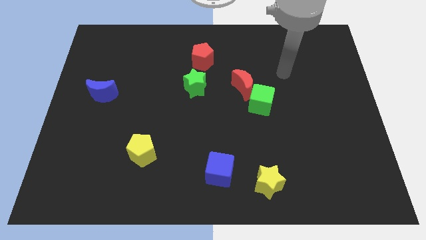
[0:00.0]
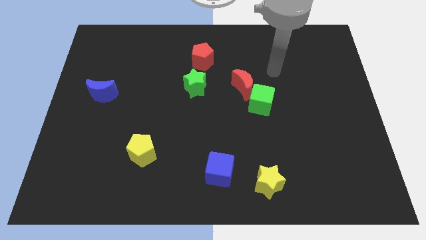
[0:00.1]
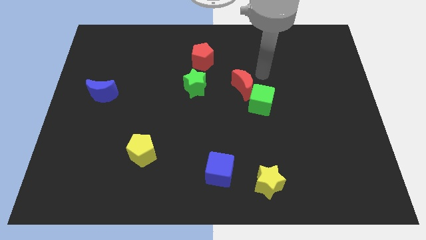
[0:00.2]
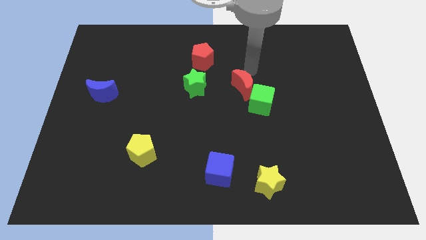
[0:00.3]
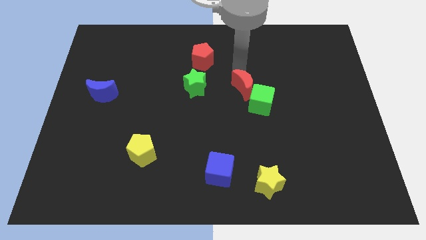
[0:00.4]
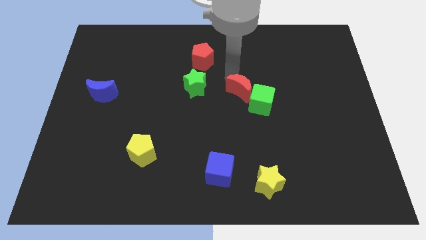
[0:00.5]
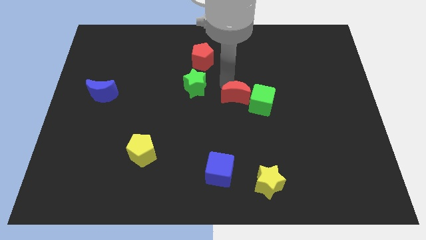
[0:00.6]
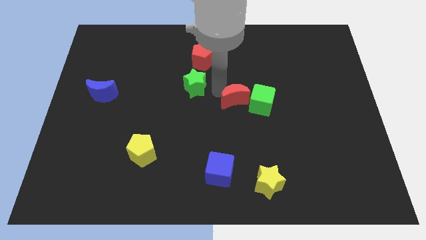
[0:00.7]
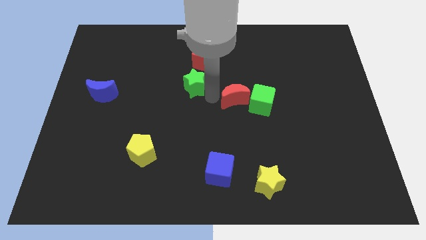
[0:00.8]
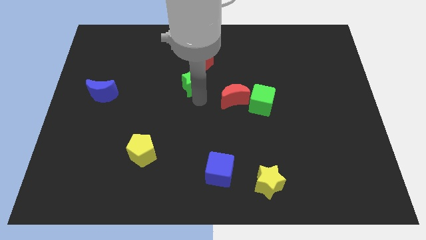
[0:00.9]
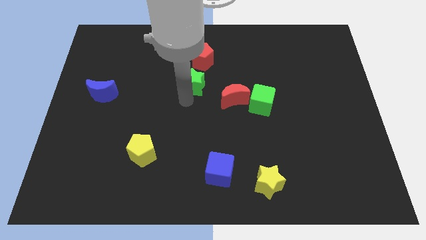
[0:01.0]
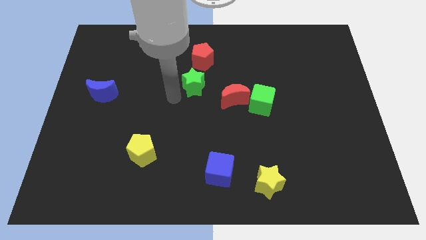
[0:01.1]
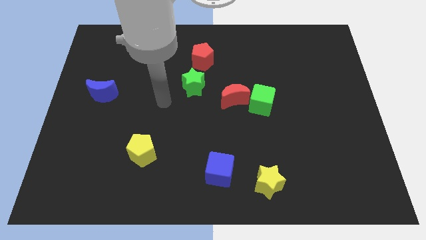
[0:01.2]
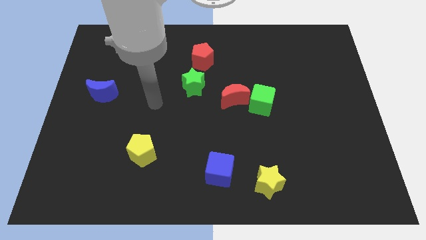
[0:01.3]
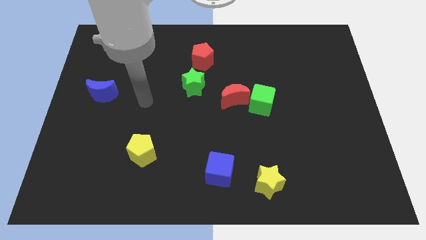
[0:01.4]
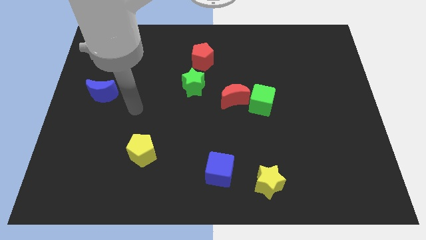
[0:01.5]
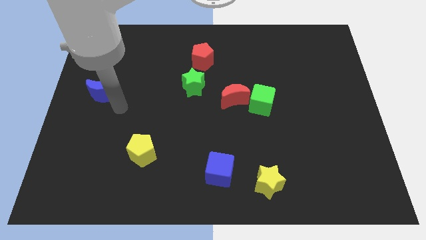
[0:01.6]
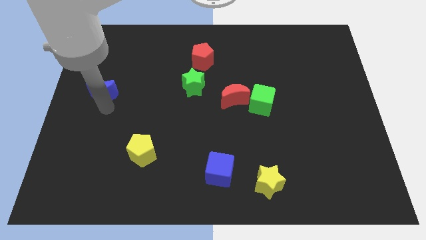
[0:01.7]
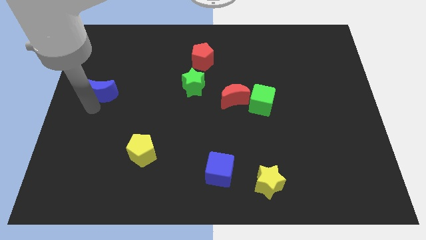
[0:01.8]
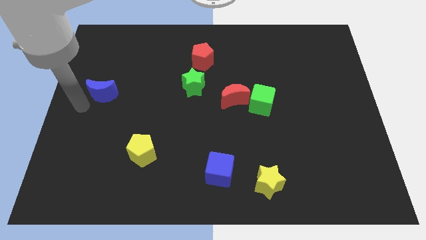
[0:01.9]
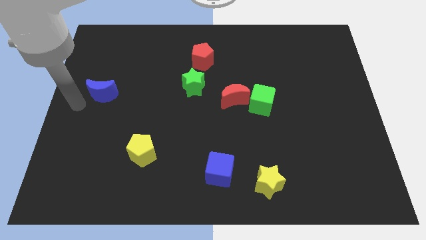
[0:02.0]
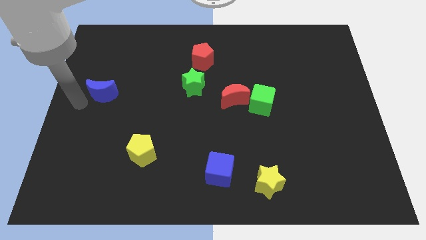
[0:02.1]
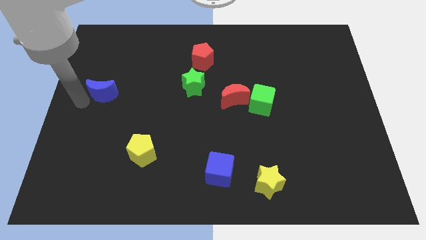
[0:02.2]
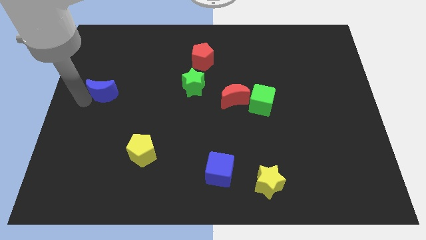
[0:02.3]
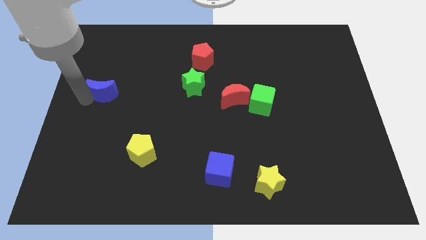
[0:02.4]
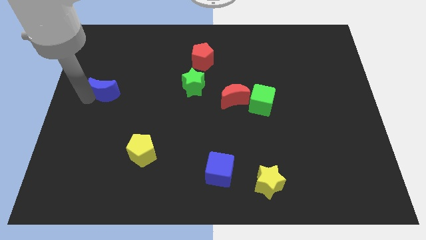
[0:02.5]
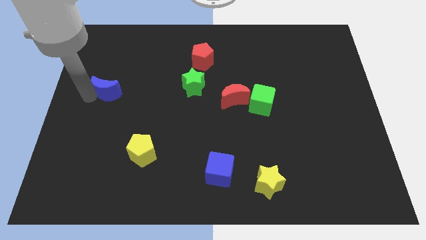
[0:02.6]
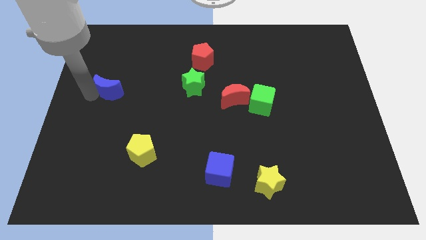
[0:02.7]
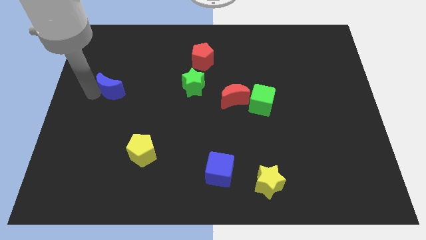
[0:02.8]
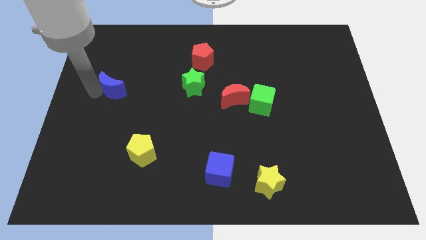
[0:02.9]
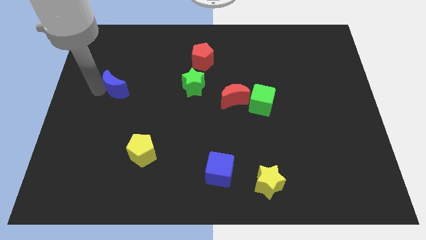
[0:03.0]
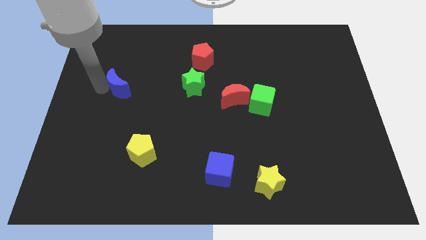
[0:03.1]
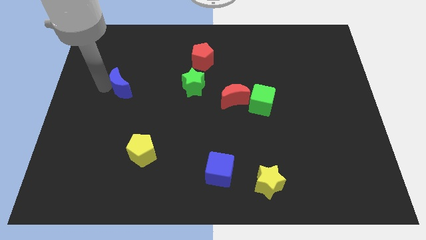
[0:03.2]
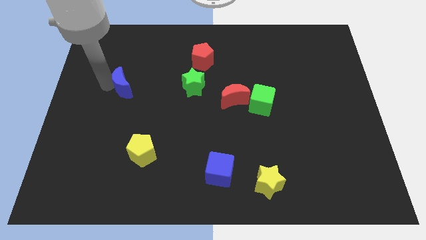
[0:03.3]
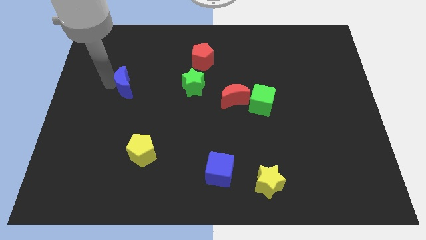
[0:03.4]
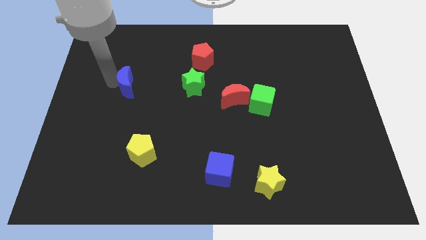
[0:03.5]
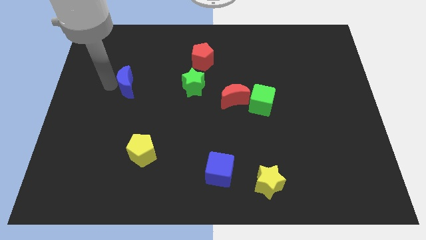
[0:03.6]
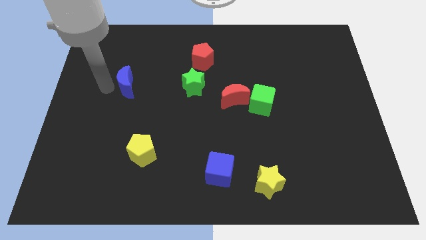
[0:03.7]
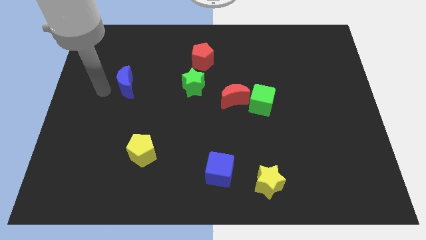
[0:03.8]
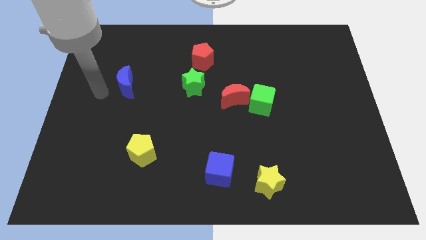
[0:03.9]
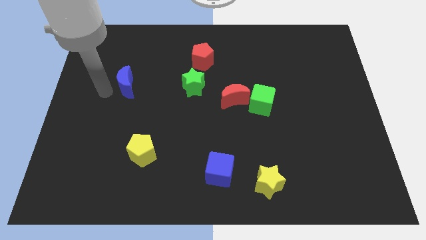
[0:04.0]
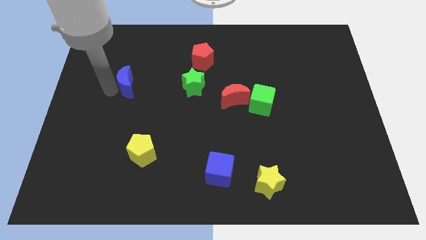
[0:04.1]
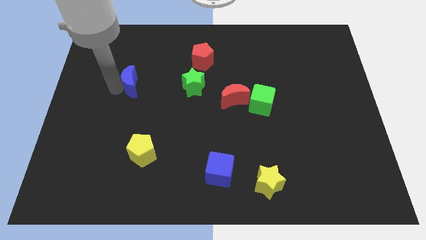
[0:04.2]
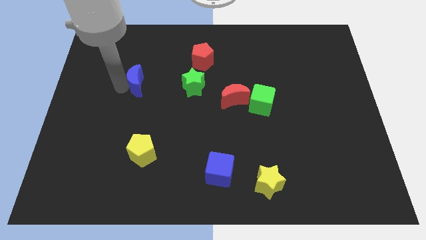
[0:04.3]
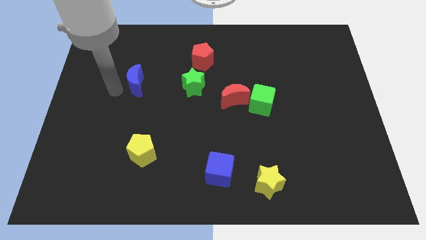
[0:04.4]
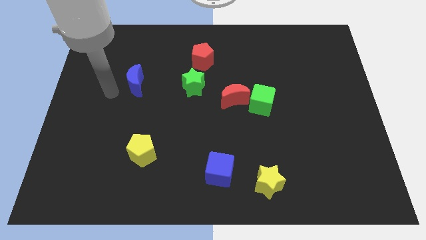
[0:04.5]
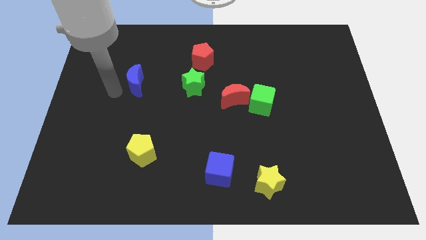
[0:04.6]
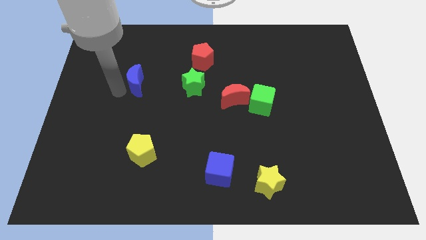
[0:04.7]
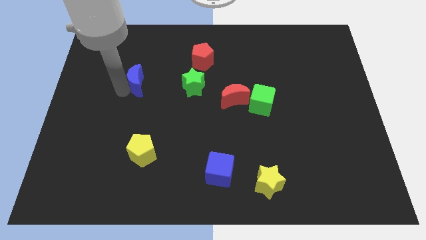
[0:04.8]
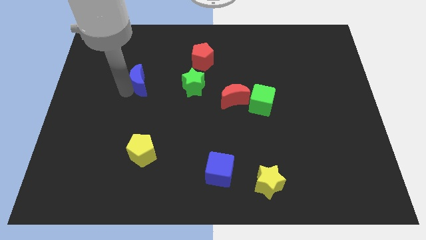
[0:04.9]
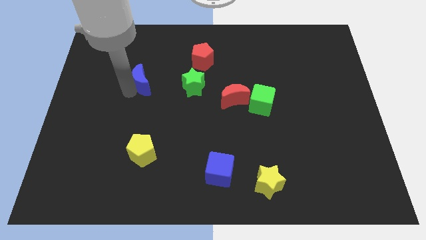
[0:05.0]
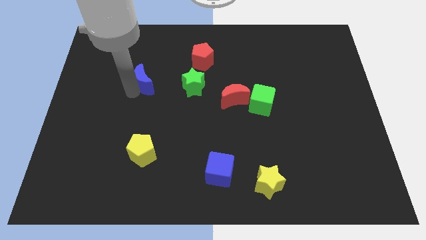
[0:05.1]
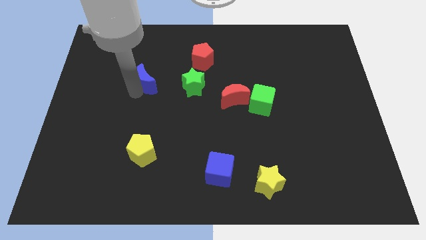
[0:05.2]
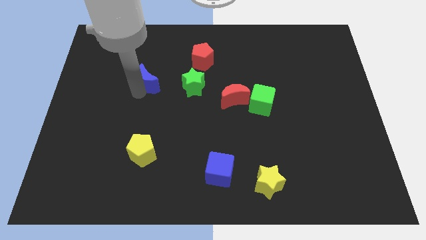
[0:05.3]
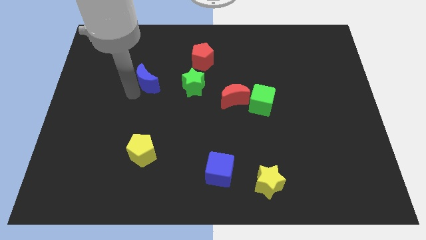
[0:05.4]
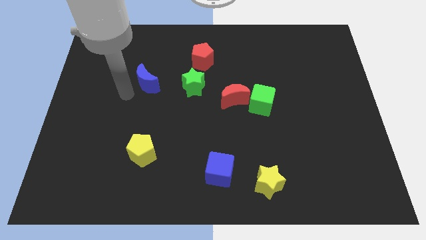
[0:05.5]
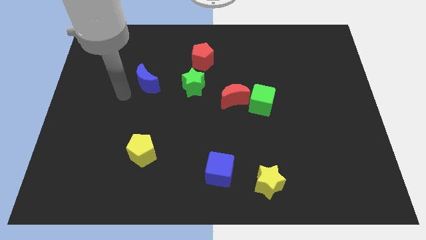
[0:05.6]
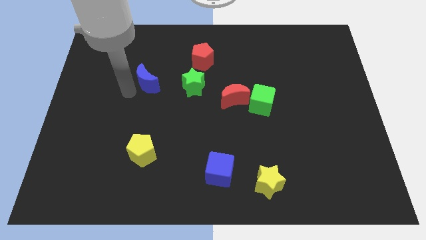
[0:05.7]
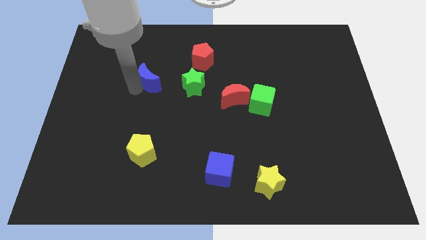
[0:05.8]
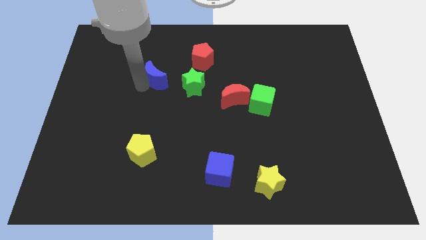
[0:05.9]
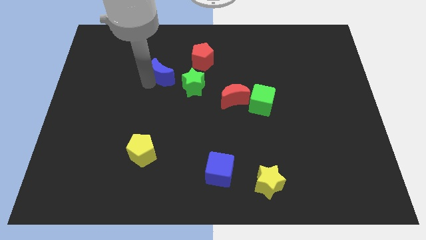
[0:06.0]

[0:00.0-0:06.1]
slide the blue moon to the top left side of the green star

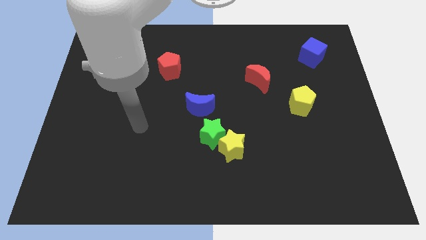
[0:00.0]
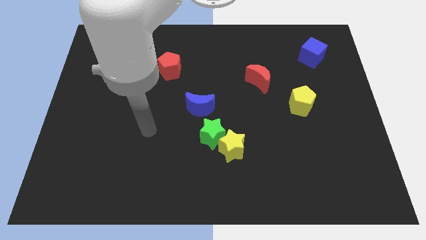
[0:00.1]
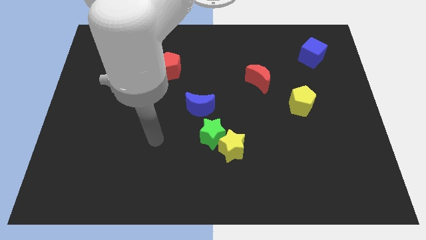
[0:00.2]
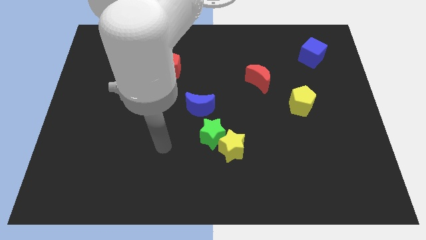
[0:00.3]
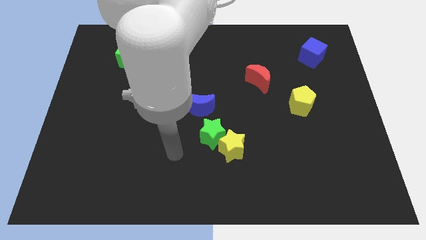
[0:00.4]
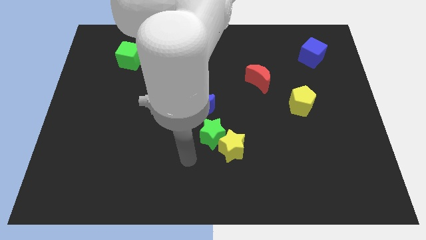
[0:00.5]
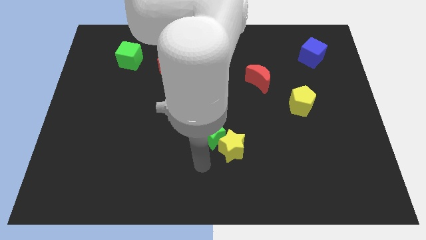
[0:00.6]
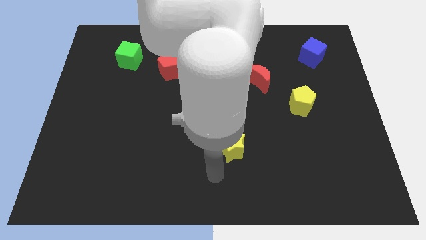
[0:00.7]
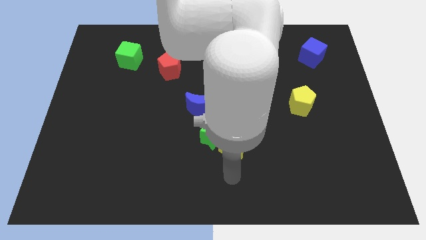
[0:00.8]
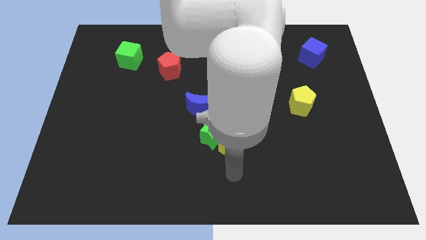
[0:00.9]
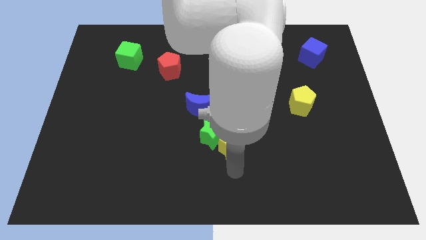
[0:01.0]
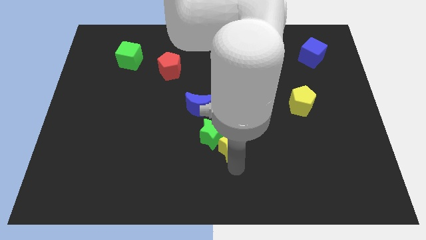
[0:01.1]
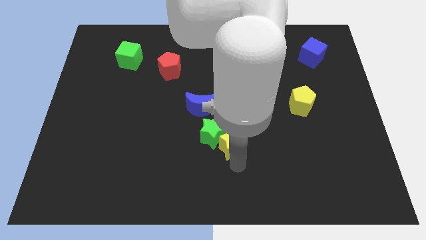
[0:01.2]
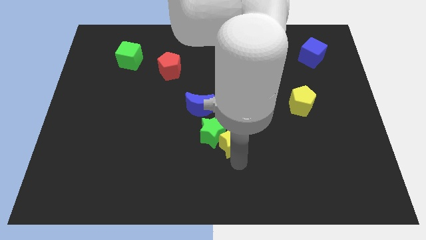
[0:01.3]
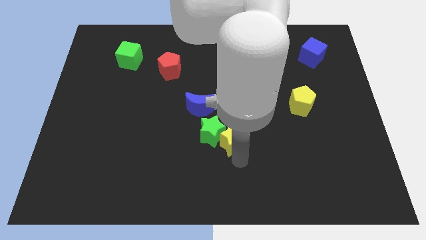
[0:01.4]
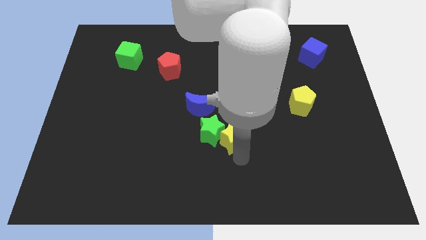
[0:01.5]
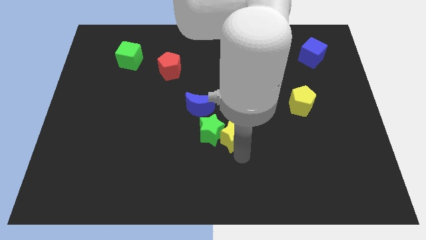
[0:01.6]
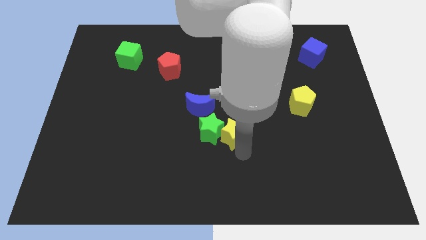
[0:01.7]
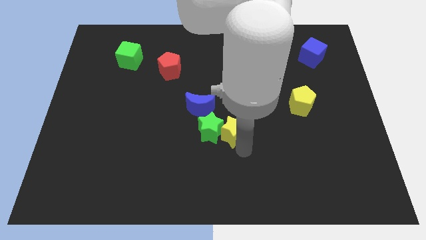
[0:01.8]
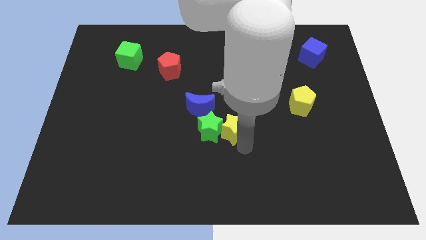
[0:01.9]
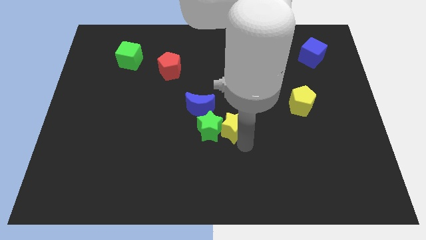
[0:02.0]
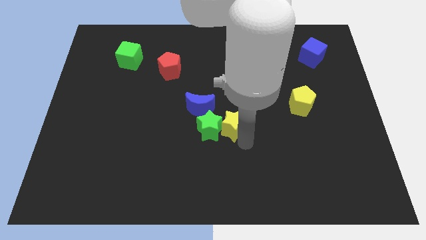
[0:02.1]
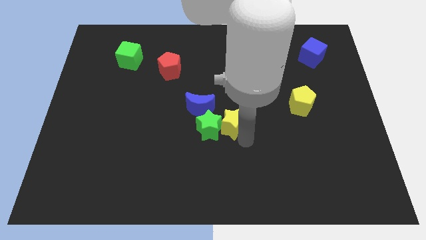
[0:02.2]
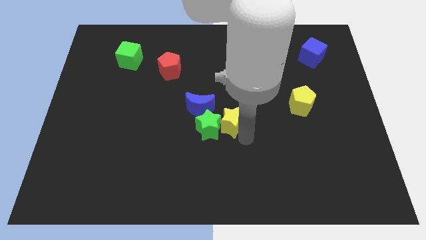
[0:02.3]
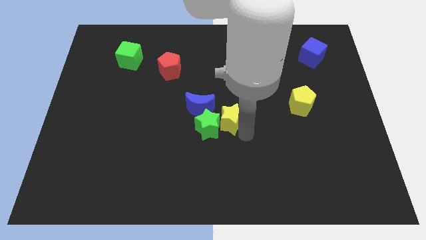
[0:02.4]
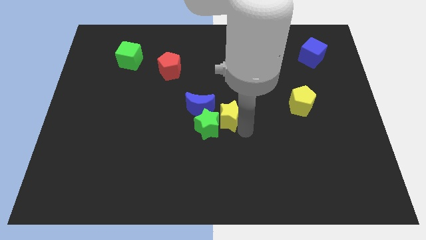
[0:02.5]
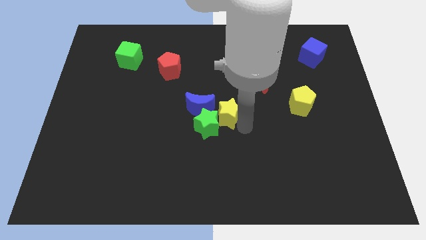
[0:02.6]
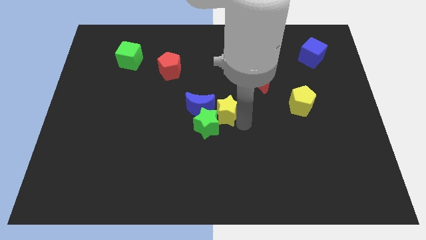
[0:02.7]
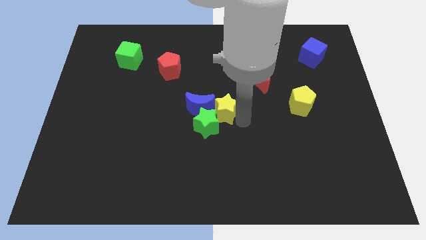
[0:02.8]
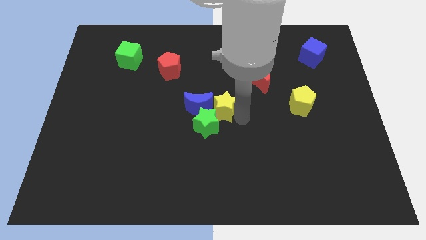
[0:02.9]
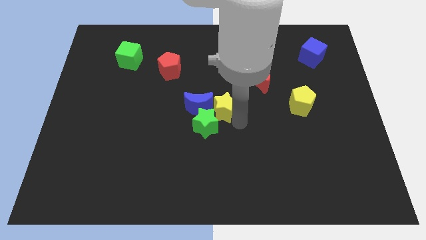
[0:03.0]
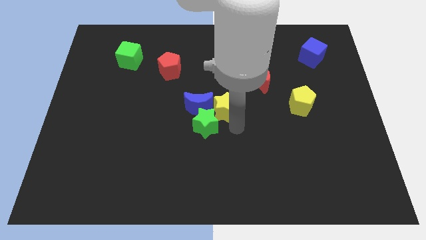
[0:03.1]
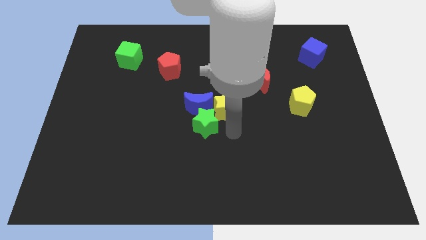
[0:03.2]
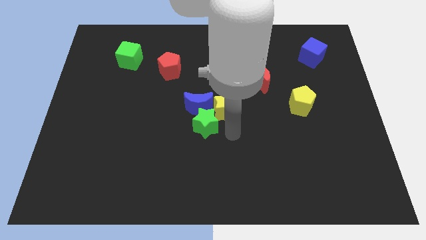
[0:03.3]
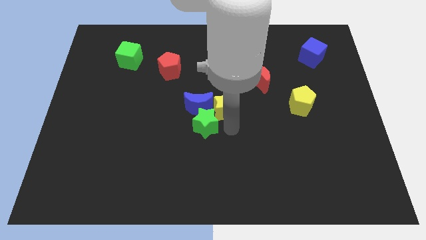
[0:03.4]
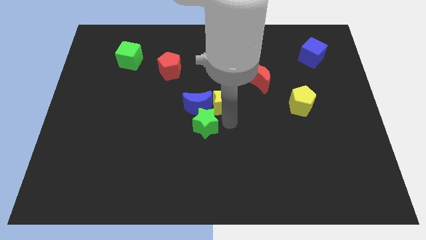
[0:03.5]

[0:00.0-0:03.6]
move the yellow star to the top right side of the blue moon
